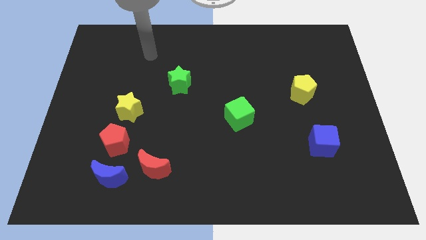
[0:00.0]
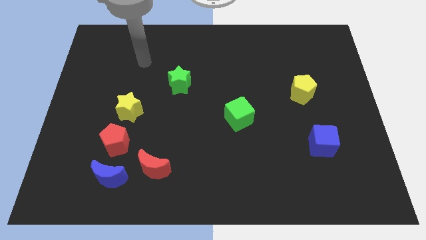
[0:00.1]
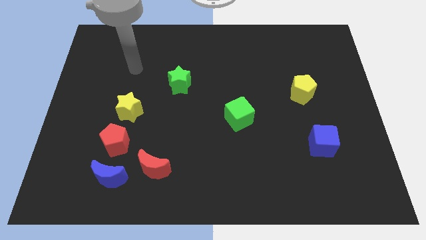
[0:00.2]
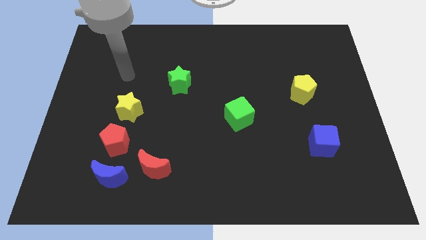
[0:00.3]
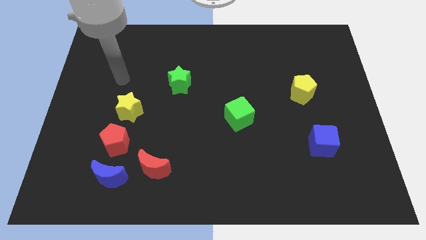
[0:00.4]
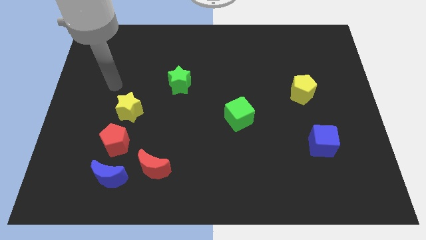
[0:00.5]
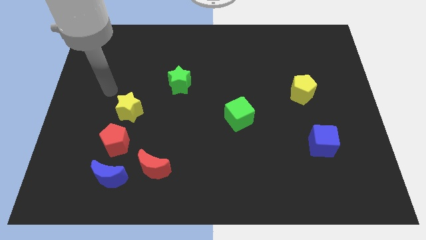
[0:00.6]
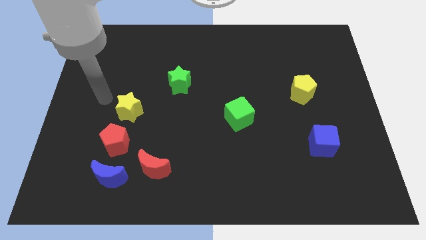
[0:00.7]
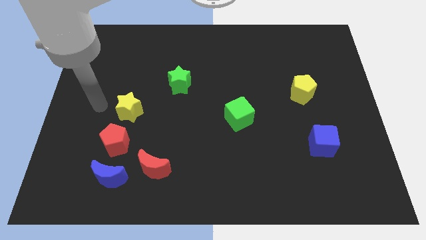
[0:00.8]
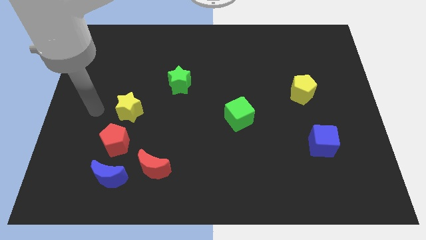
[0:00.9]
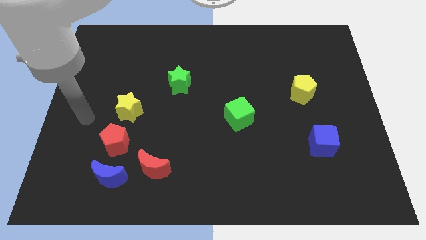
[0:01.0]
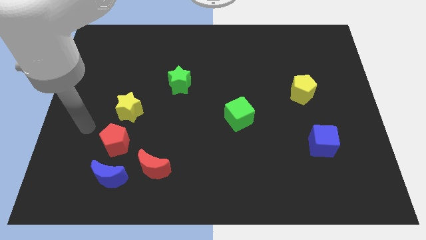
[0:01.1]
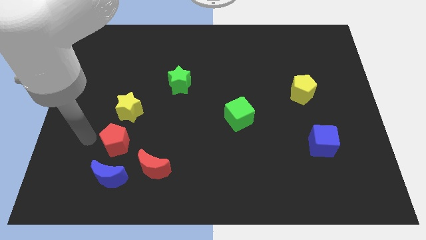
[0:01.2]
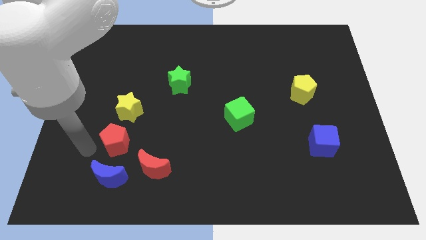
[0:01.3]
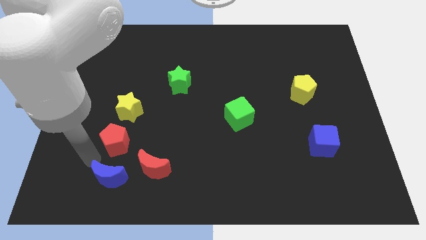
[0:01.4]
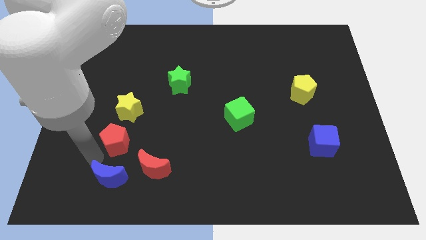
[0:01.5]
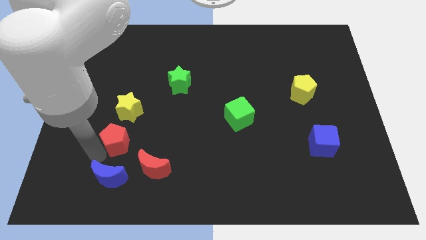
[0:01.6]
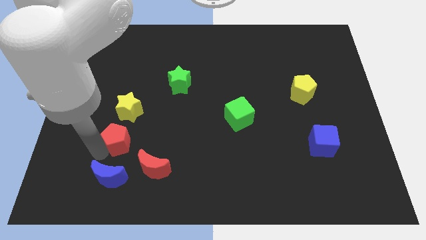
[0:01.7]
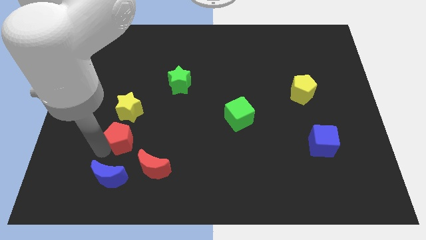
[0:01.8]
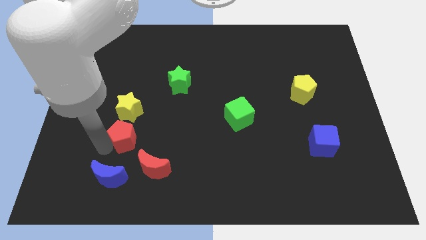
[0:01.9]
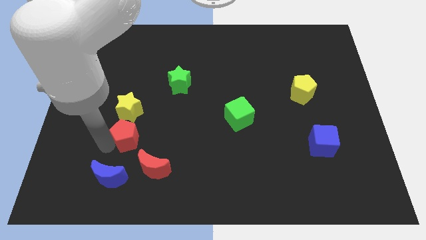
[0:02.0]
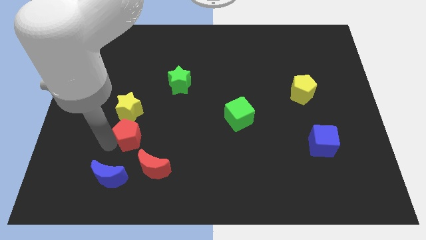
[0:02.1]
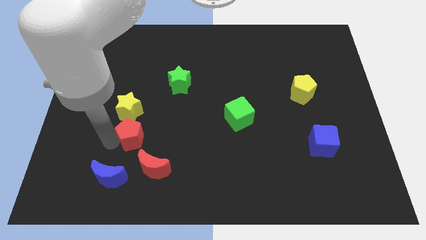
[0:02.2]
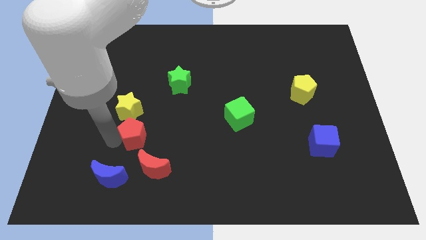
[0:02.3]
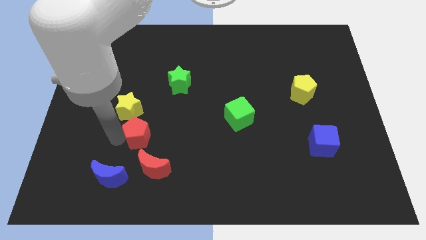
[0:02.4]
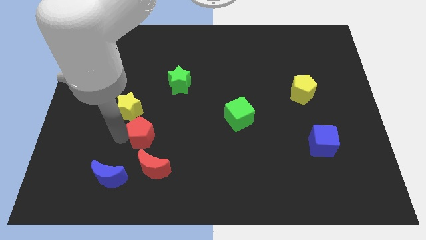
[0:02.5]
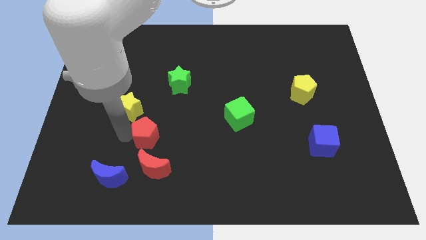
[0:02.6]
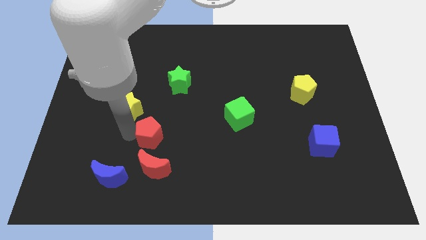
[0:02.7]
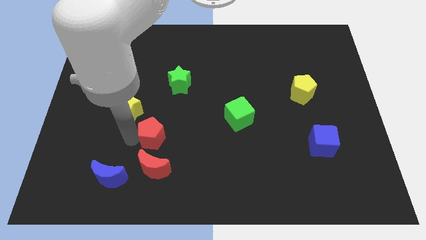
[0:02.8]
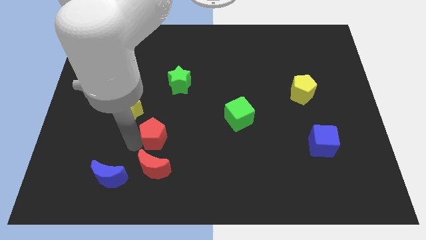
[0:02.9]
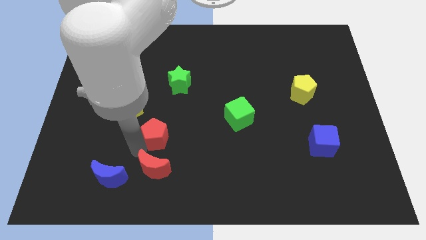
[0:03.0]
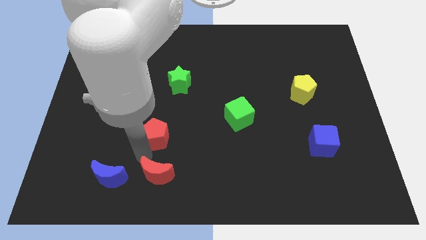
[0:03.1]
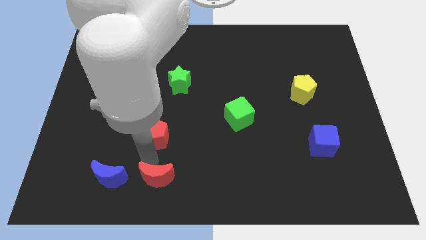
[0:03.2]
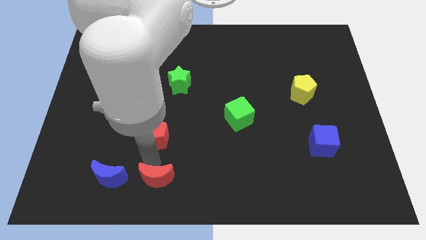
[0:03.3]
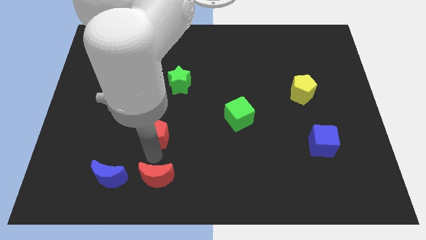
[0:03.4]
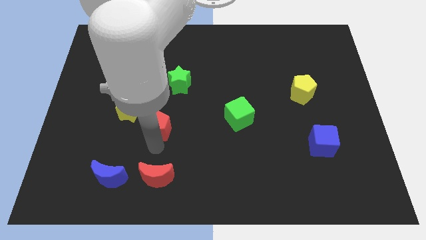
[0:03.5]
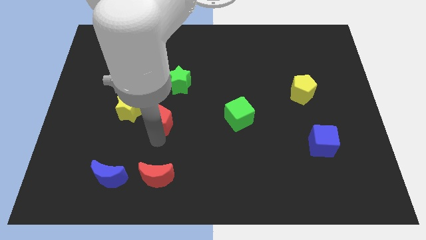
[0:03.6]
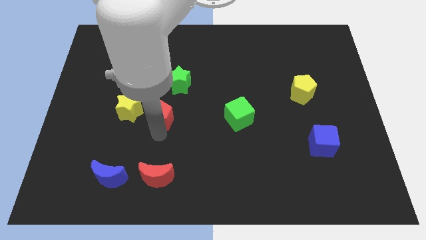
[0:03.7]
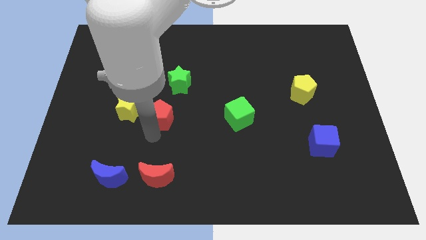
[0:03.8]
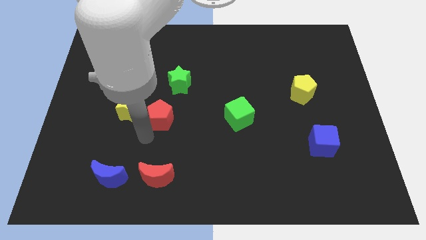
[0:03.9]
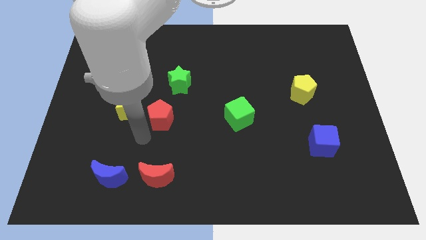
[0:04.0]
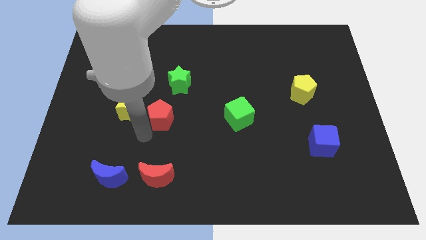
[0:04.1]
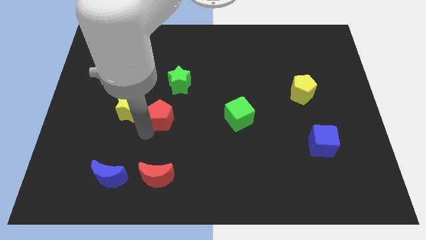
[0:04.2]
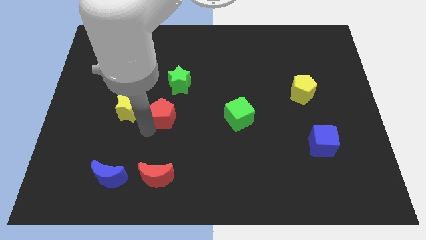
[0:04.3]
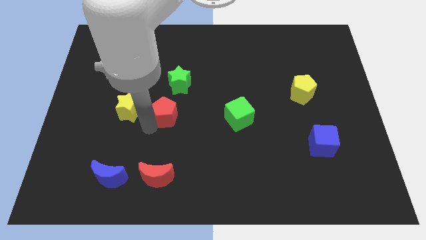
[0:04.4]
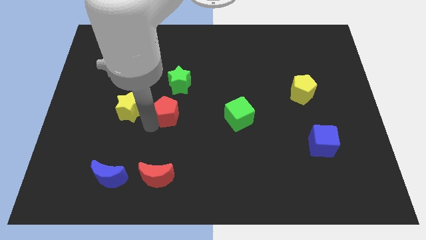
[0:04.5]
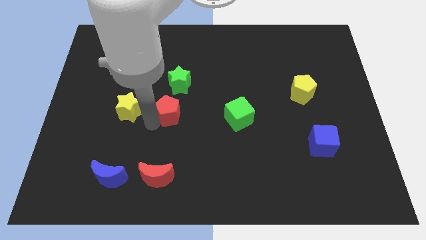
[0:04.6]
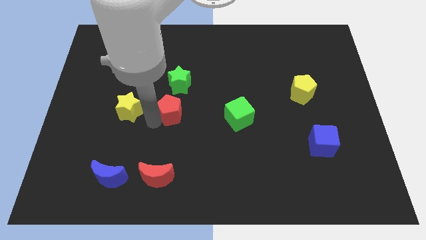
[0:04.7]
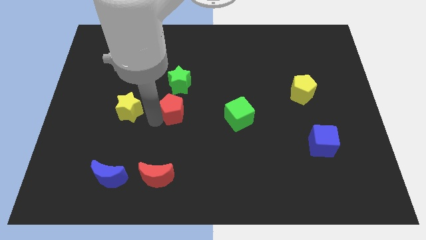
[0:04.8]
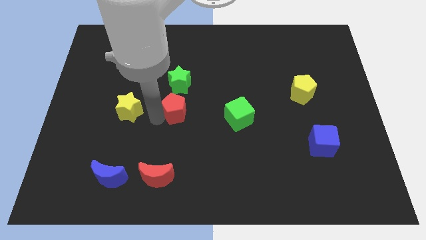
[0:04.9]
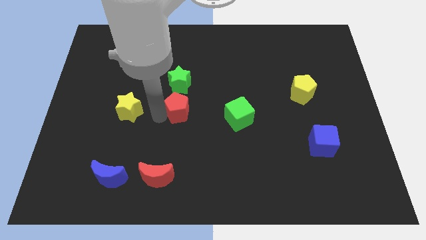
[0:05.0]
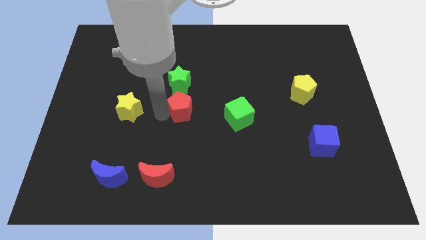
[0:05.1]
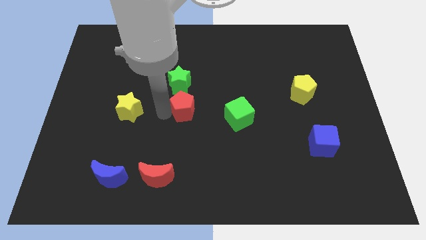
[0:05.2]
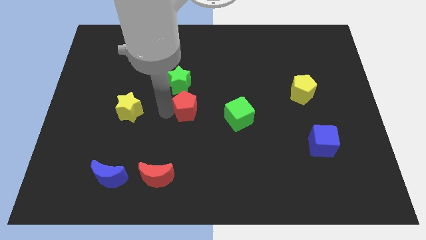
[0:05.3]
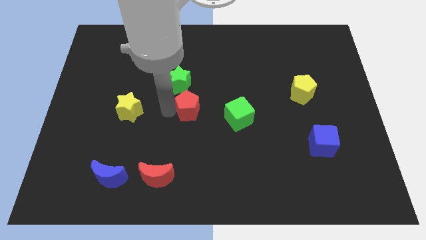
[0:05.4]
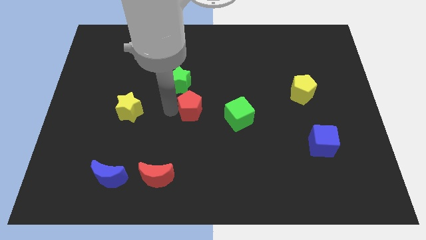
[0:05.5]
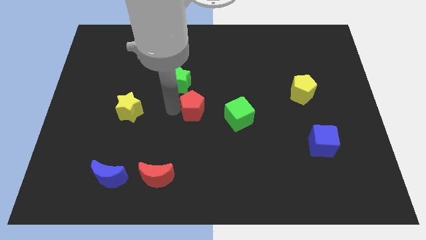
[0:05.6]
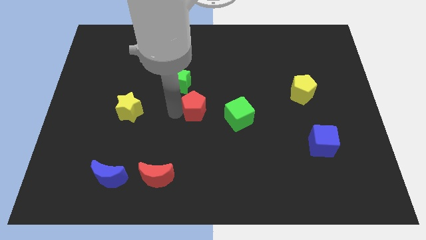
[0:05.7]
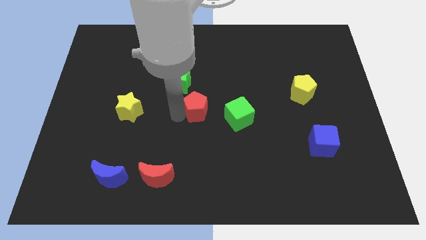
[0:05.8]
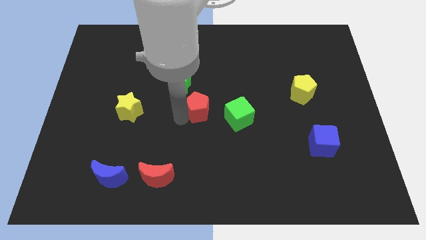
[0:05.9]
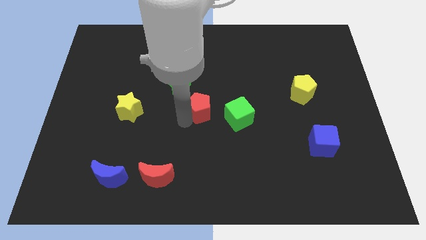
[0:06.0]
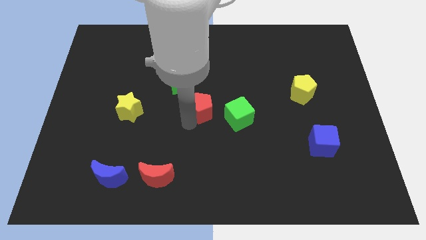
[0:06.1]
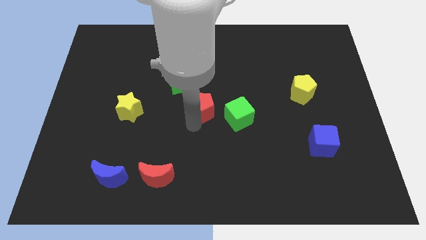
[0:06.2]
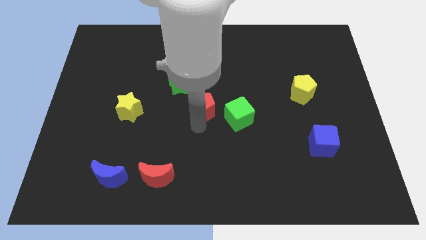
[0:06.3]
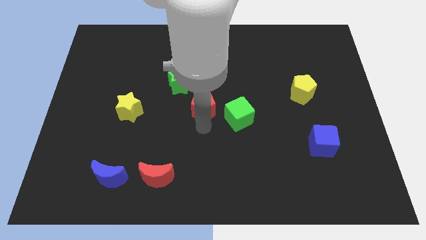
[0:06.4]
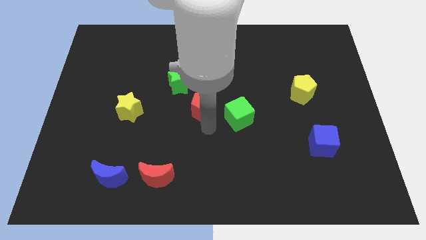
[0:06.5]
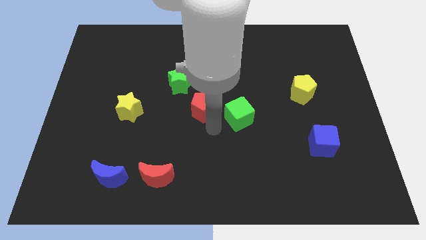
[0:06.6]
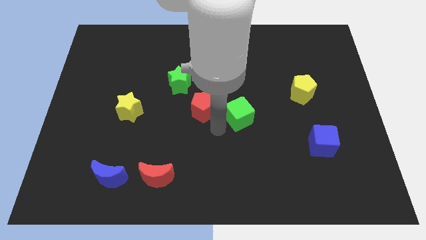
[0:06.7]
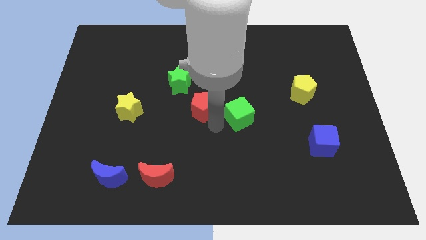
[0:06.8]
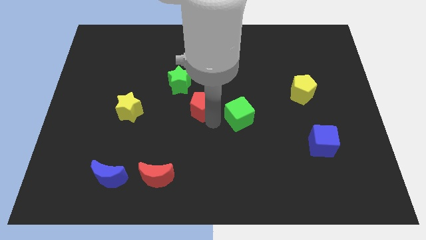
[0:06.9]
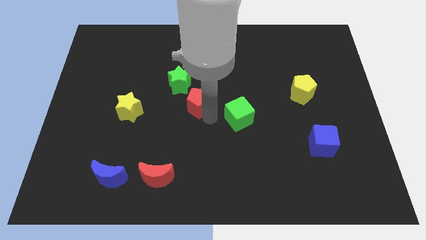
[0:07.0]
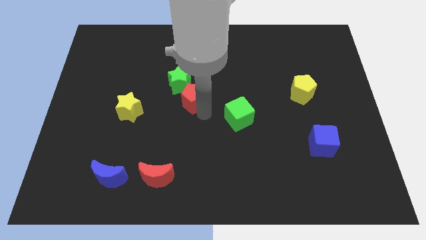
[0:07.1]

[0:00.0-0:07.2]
slide the red pentagon upwards and right diagonally

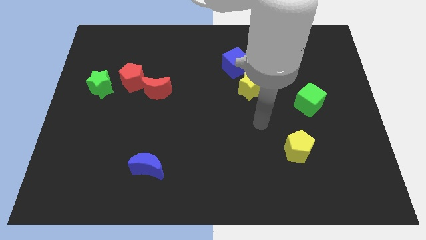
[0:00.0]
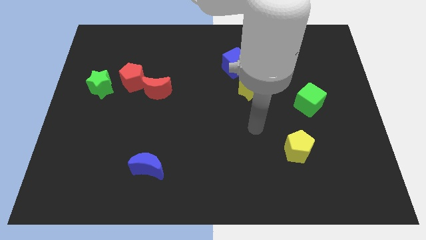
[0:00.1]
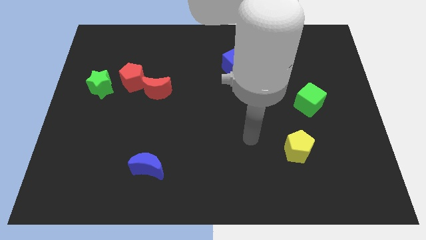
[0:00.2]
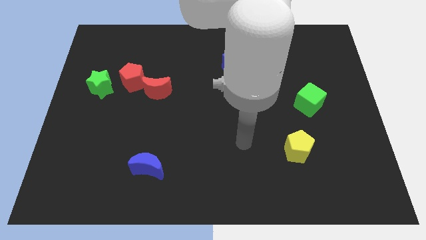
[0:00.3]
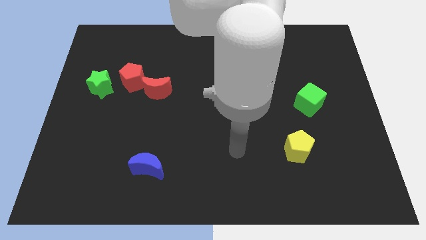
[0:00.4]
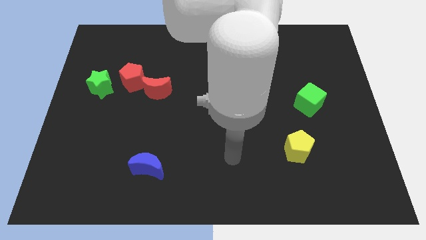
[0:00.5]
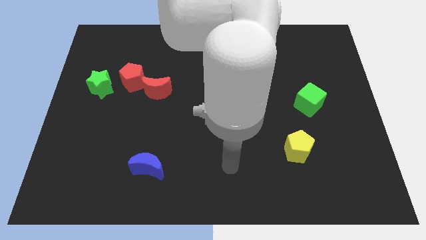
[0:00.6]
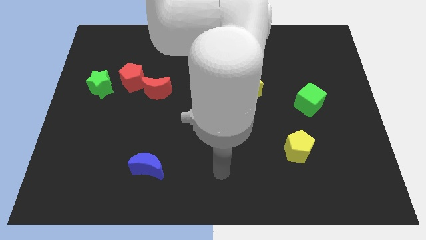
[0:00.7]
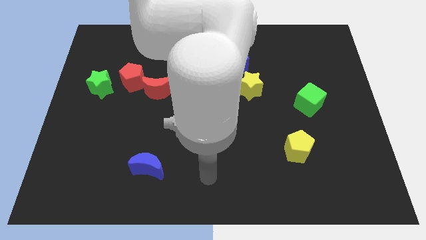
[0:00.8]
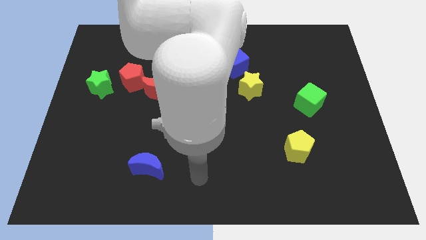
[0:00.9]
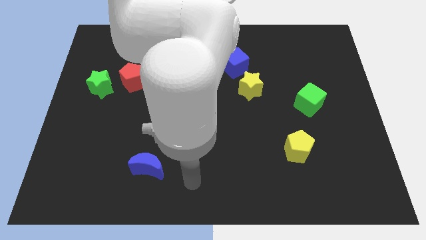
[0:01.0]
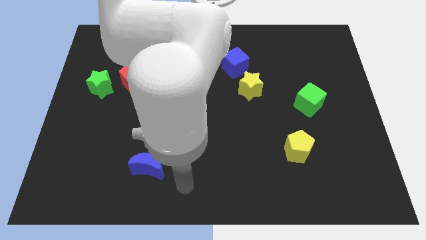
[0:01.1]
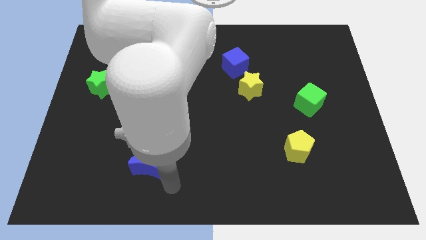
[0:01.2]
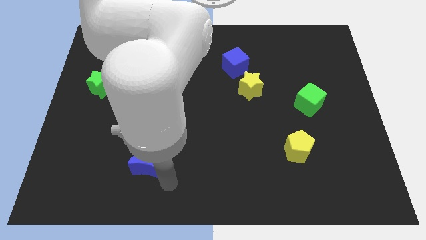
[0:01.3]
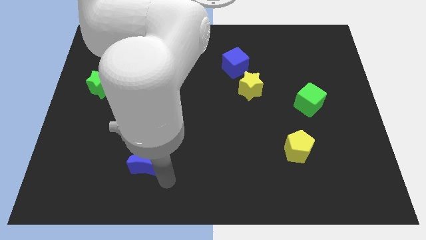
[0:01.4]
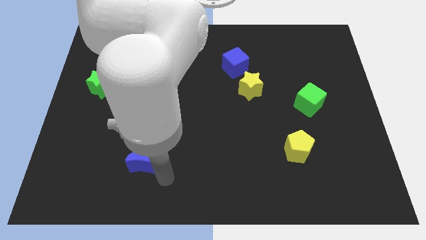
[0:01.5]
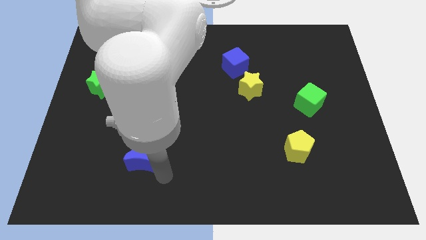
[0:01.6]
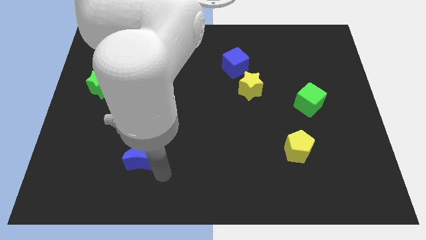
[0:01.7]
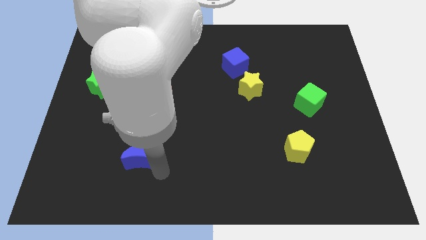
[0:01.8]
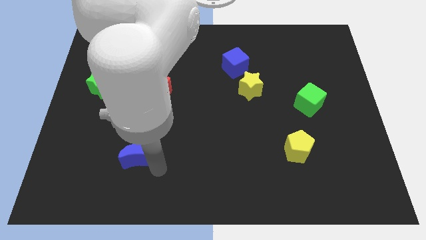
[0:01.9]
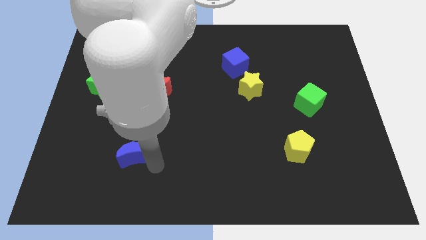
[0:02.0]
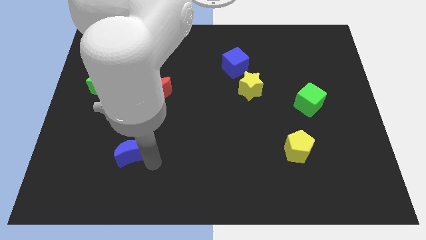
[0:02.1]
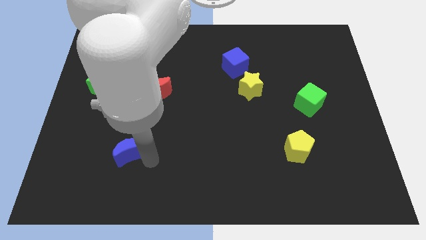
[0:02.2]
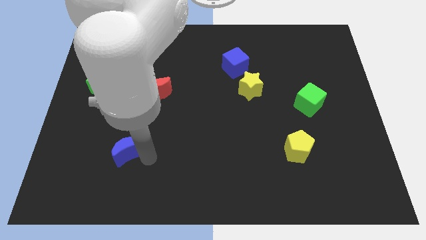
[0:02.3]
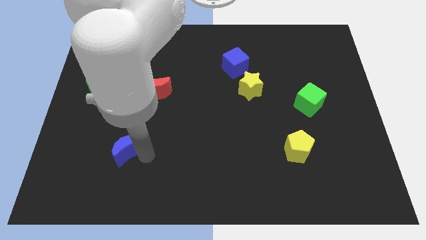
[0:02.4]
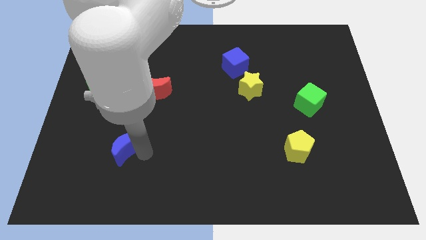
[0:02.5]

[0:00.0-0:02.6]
push the blue moon upwards and to the left diagonally somewhat
